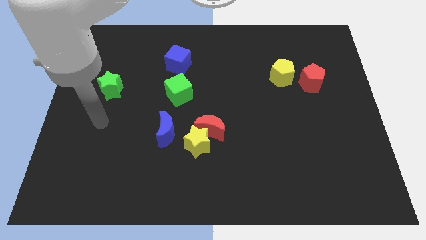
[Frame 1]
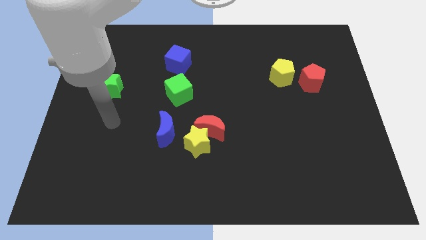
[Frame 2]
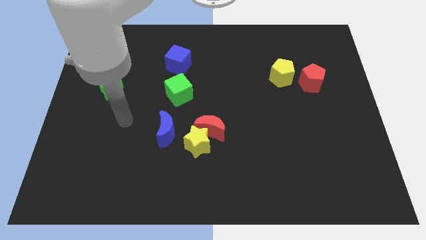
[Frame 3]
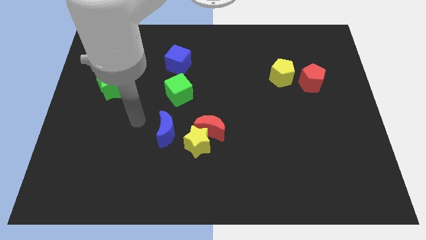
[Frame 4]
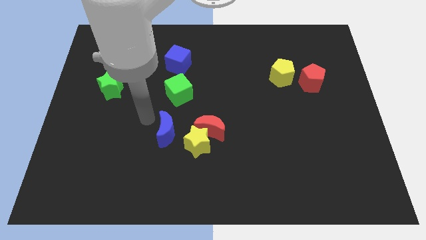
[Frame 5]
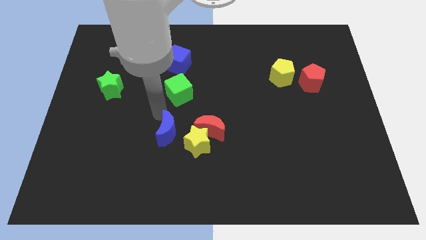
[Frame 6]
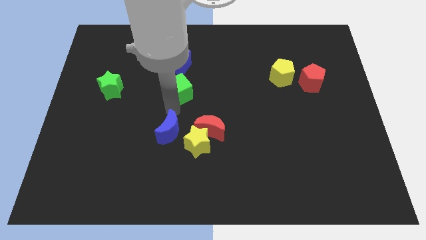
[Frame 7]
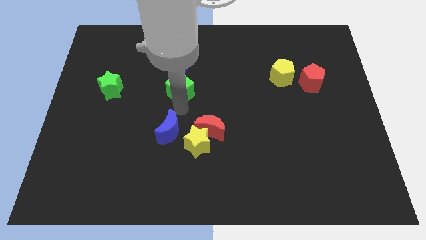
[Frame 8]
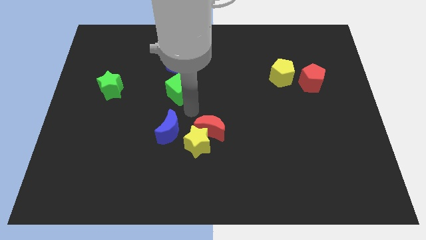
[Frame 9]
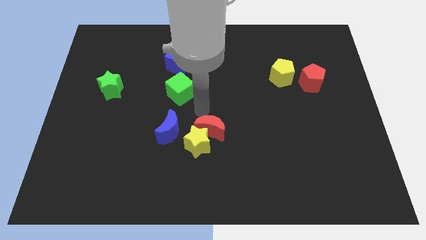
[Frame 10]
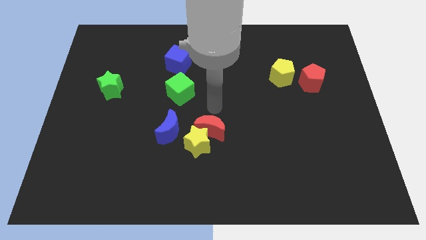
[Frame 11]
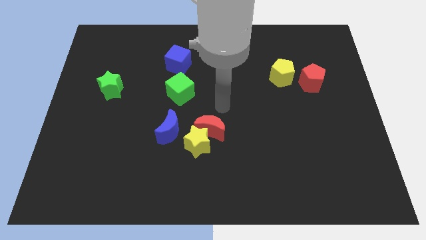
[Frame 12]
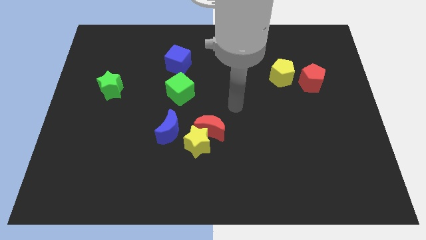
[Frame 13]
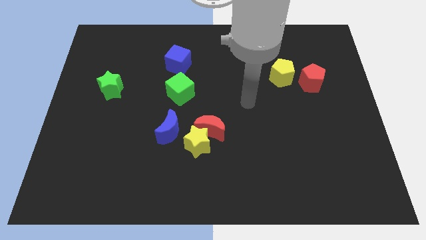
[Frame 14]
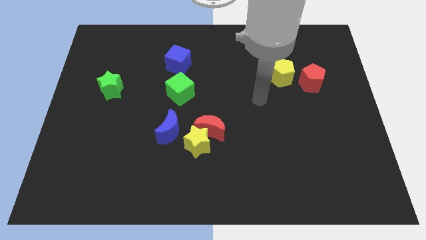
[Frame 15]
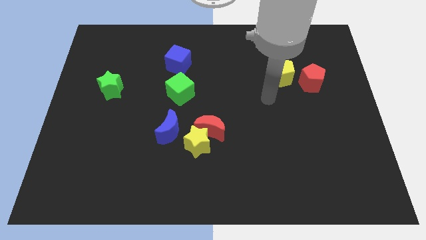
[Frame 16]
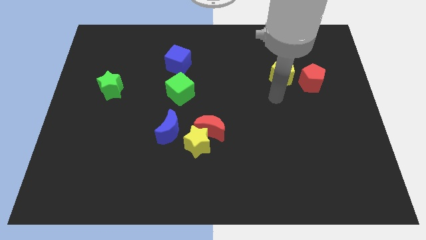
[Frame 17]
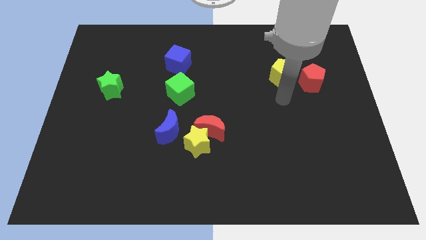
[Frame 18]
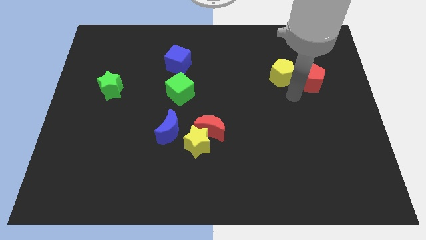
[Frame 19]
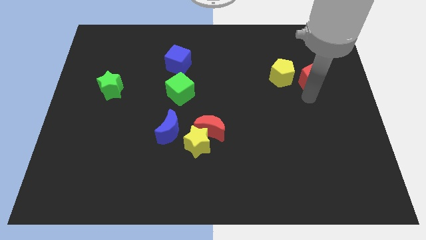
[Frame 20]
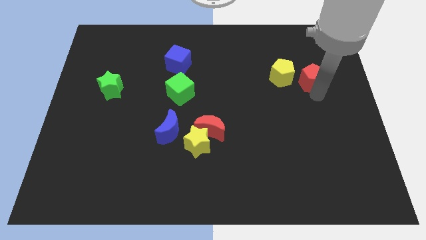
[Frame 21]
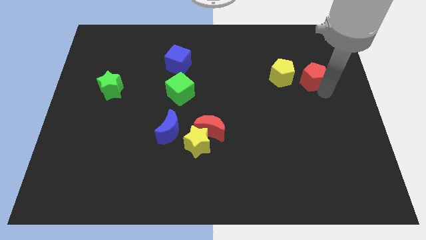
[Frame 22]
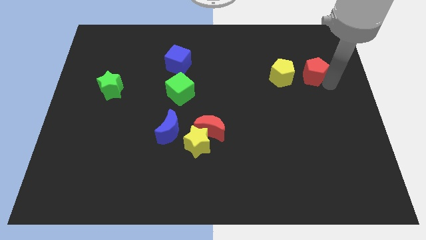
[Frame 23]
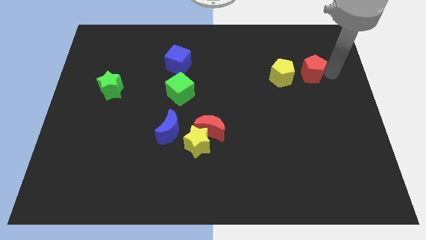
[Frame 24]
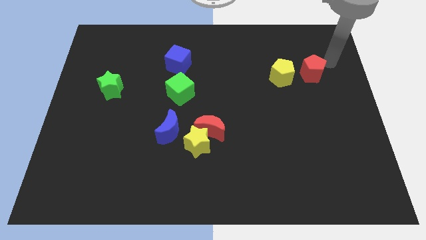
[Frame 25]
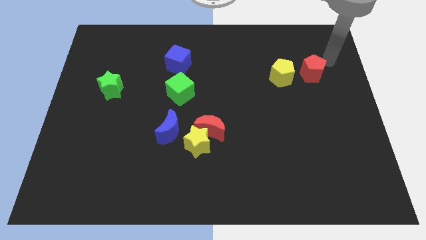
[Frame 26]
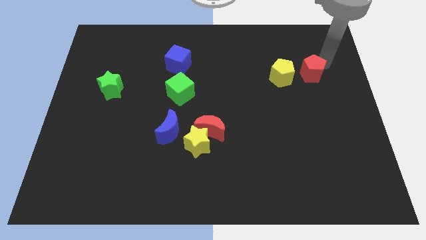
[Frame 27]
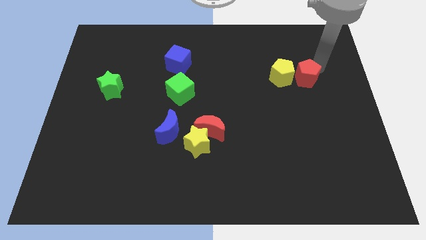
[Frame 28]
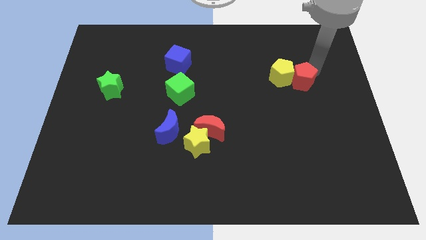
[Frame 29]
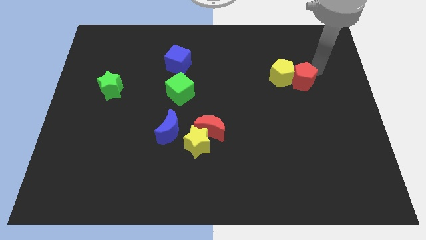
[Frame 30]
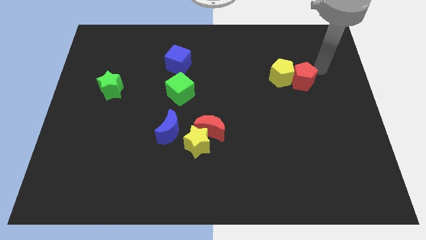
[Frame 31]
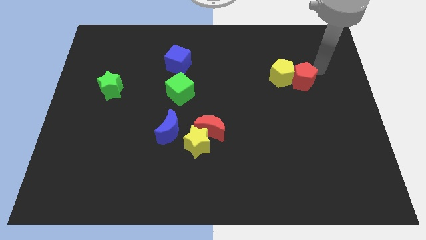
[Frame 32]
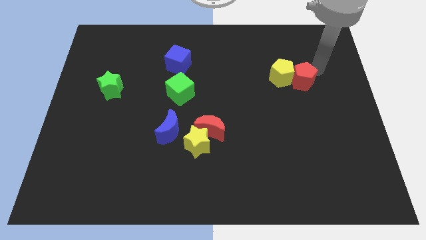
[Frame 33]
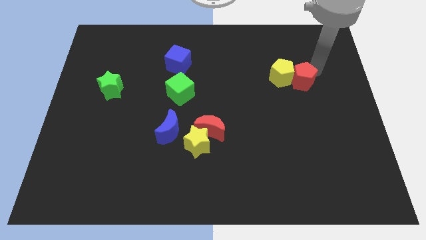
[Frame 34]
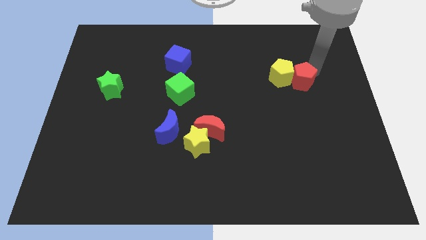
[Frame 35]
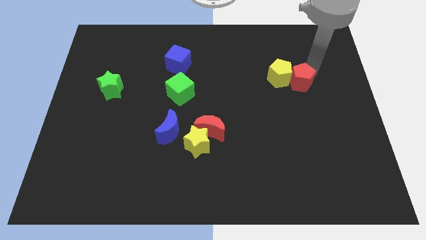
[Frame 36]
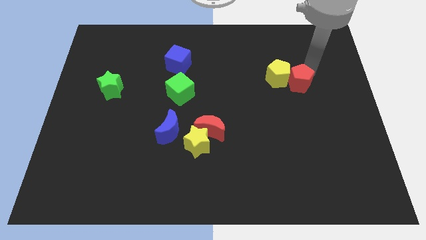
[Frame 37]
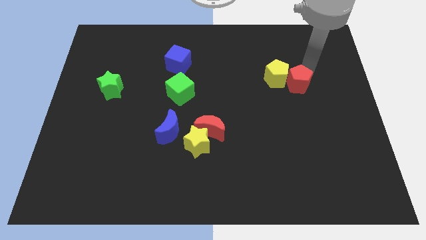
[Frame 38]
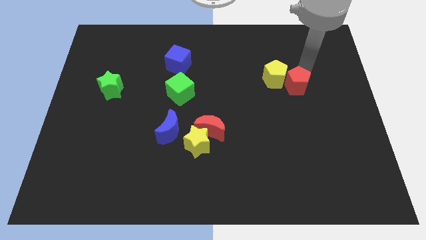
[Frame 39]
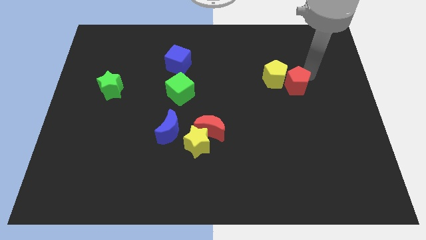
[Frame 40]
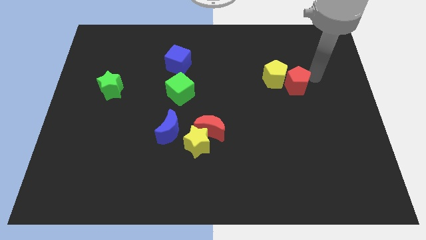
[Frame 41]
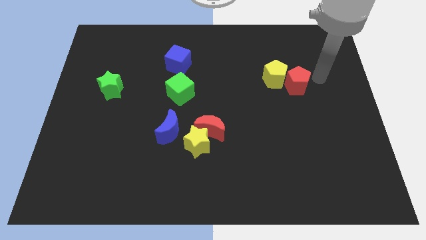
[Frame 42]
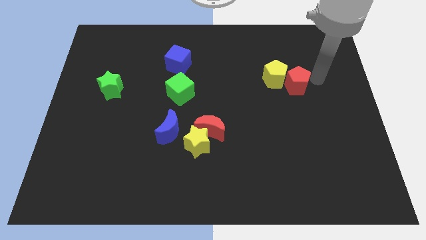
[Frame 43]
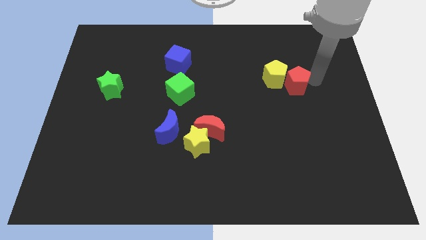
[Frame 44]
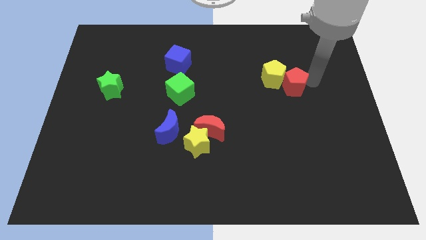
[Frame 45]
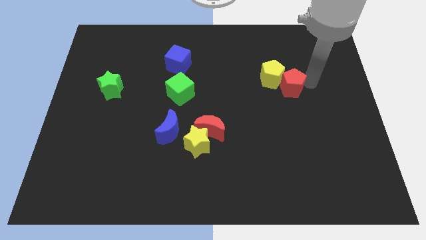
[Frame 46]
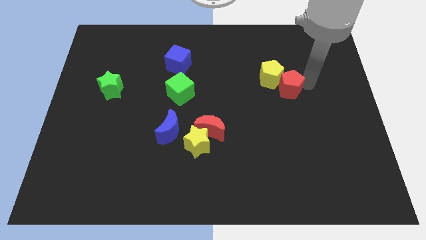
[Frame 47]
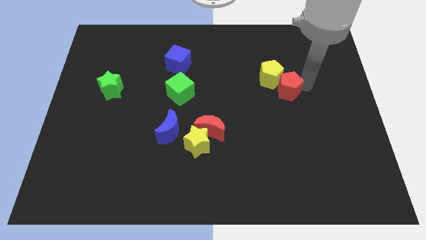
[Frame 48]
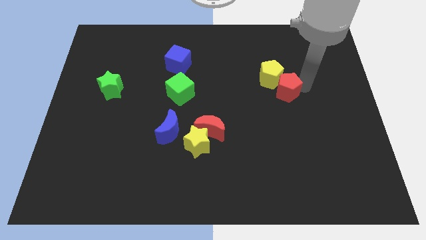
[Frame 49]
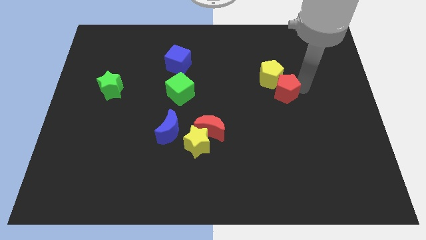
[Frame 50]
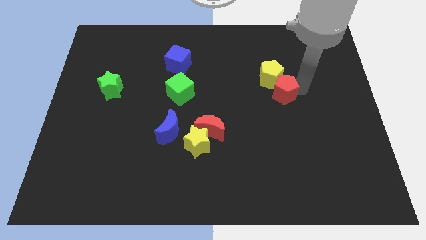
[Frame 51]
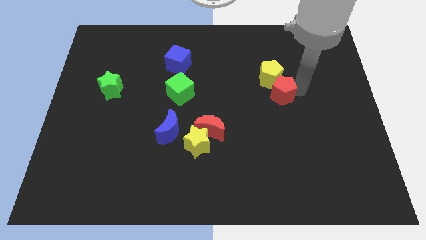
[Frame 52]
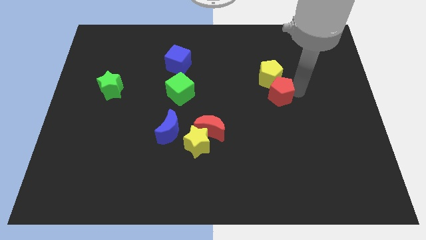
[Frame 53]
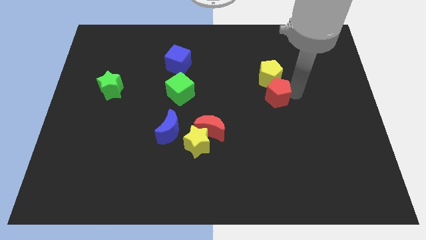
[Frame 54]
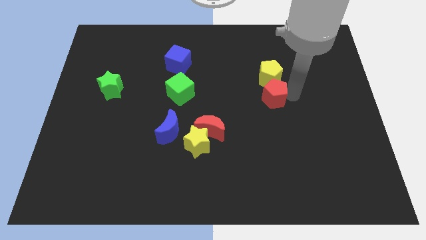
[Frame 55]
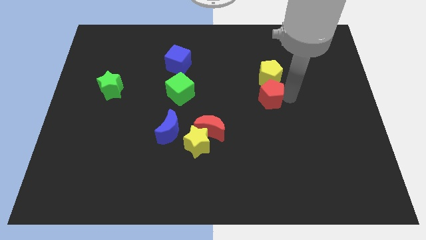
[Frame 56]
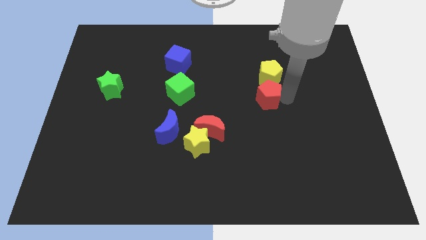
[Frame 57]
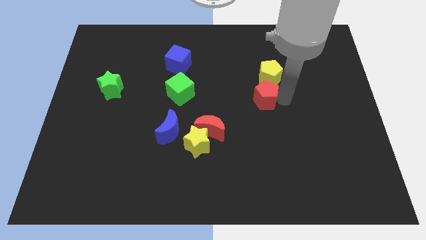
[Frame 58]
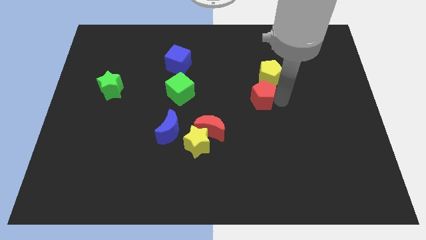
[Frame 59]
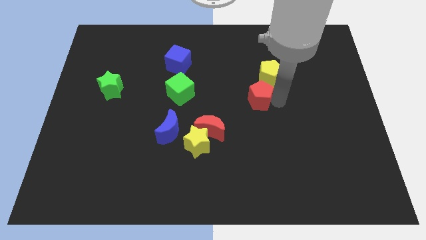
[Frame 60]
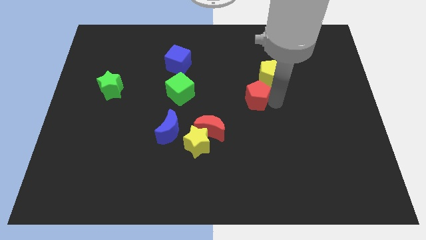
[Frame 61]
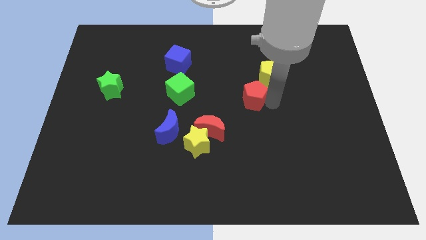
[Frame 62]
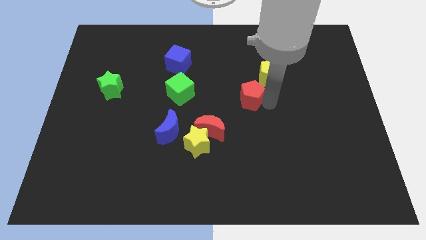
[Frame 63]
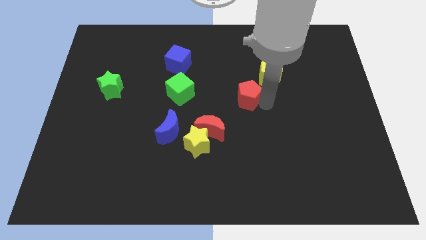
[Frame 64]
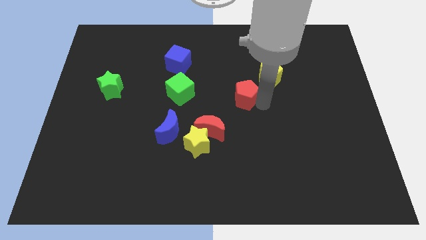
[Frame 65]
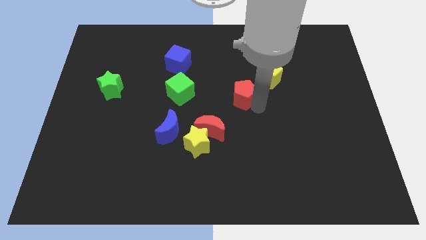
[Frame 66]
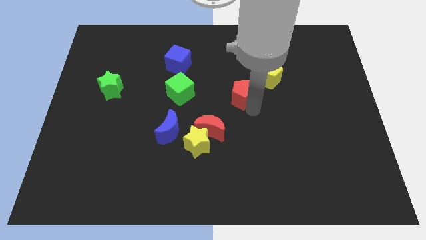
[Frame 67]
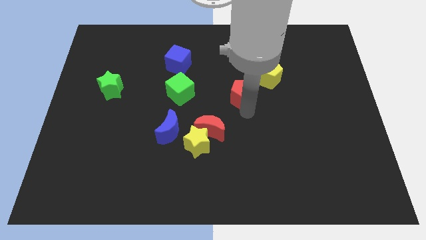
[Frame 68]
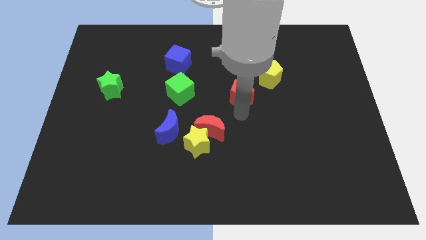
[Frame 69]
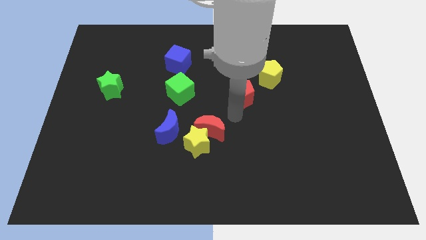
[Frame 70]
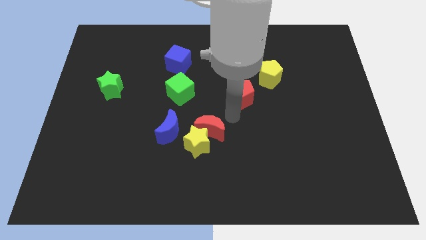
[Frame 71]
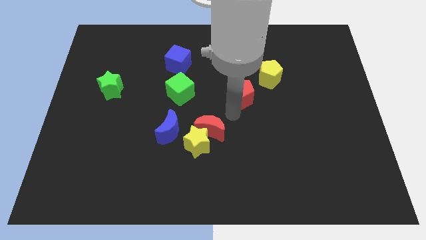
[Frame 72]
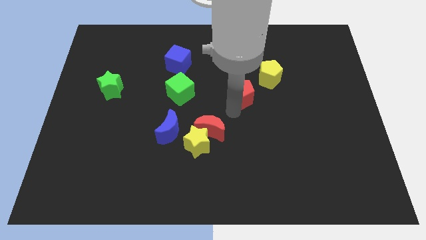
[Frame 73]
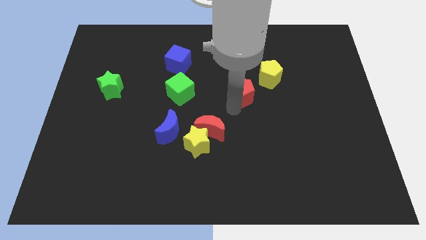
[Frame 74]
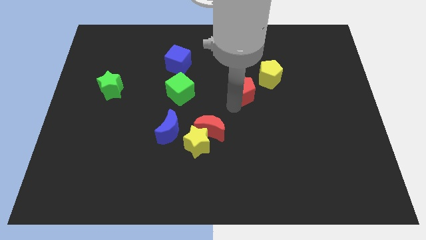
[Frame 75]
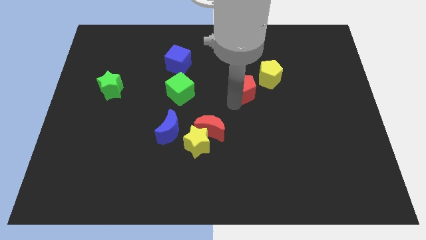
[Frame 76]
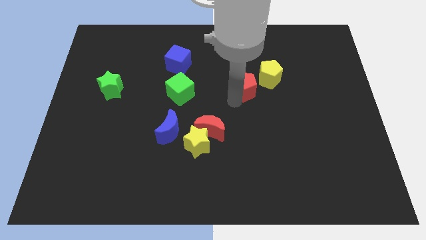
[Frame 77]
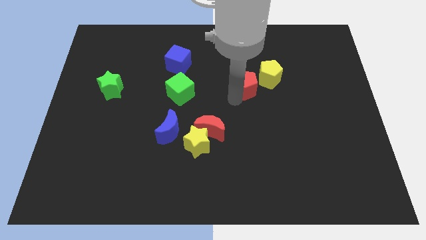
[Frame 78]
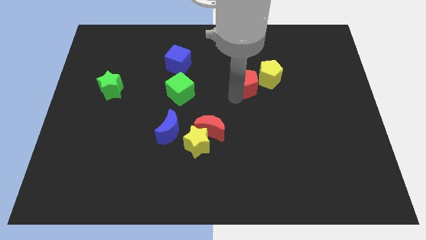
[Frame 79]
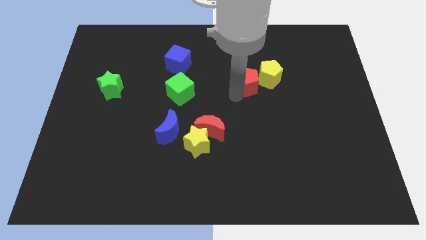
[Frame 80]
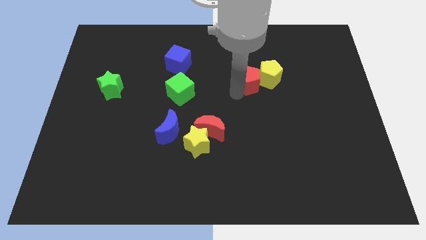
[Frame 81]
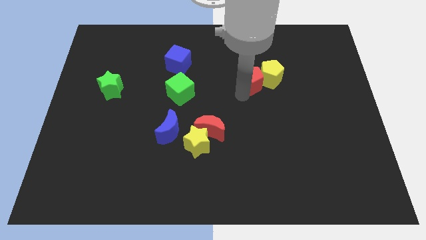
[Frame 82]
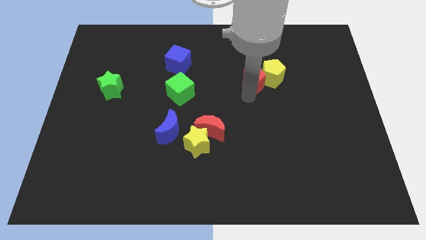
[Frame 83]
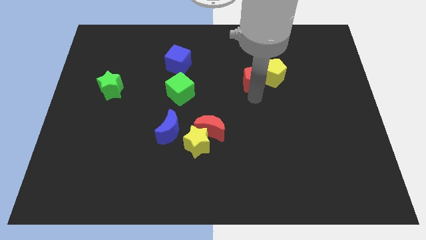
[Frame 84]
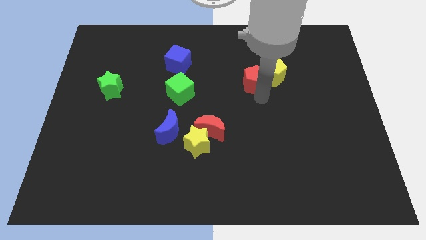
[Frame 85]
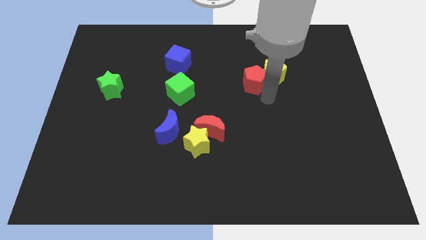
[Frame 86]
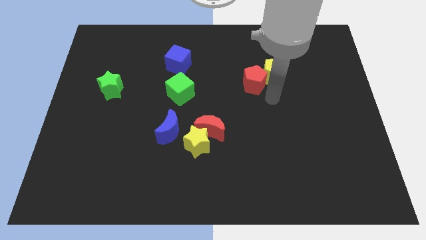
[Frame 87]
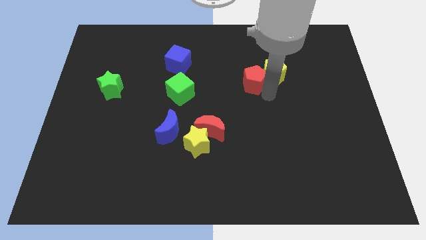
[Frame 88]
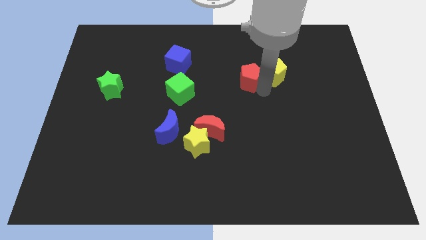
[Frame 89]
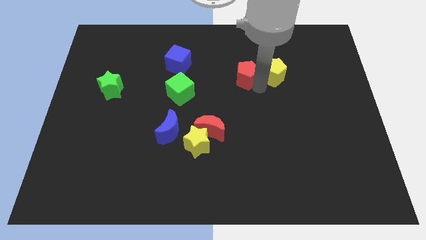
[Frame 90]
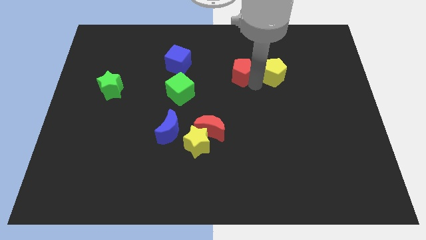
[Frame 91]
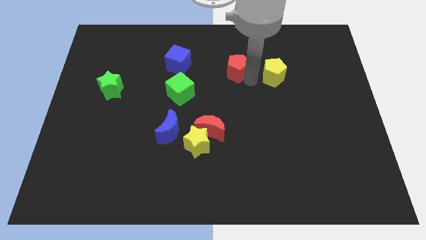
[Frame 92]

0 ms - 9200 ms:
put the red pentagon just right of the blue cube
